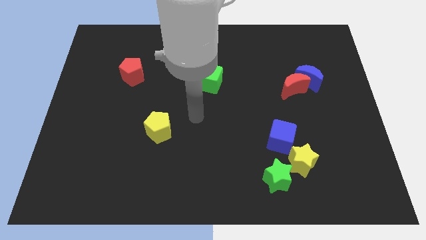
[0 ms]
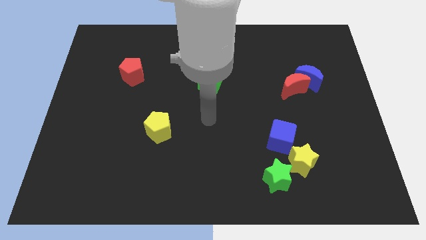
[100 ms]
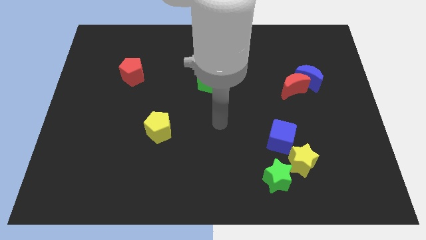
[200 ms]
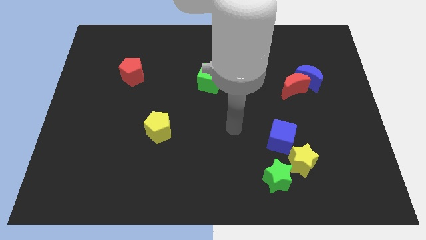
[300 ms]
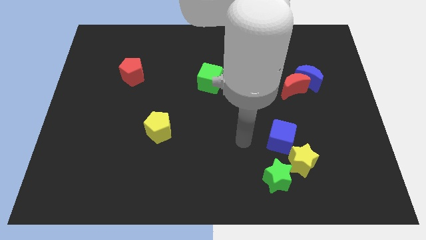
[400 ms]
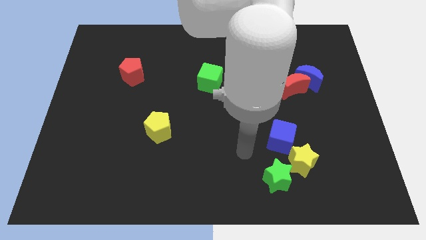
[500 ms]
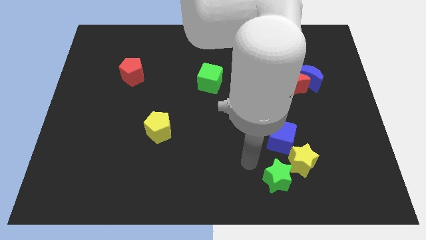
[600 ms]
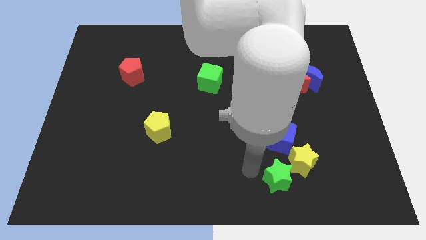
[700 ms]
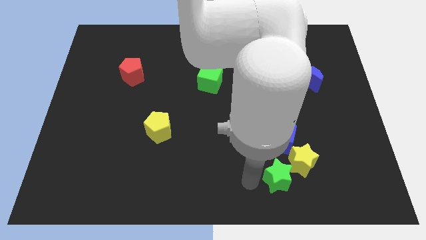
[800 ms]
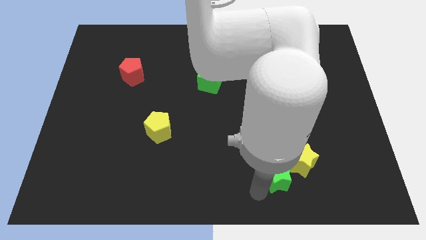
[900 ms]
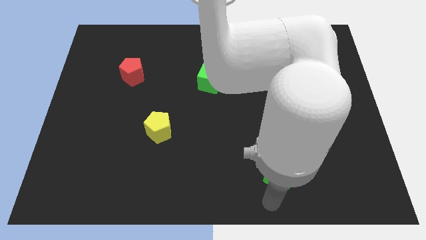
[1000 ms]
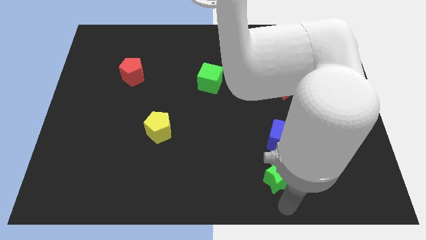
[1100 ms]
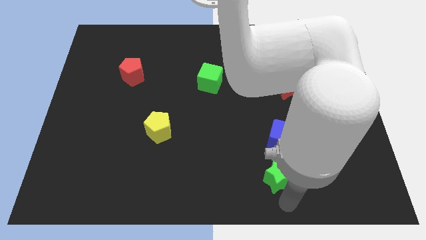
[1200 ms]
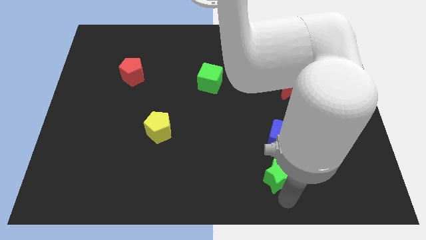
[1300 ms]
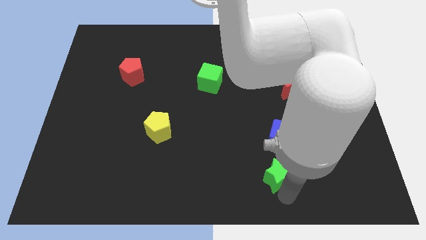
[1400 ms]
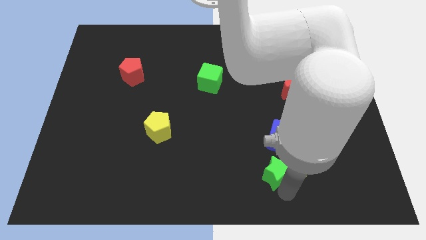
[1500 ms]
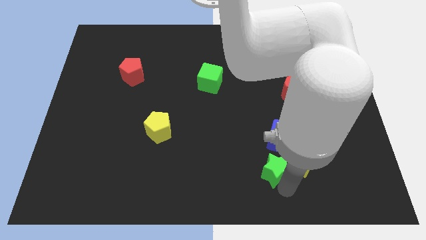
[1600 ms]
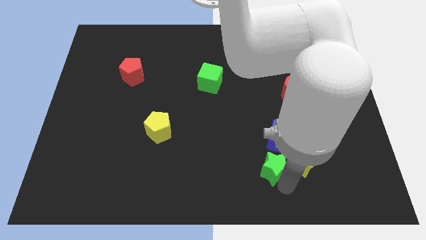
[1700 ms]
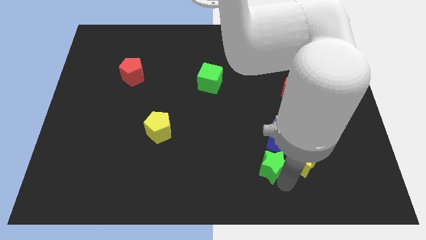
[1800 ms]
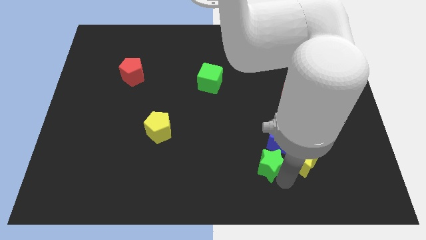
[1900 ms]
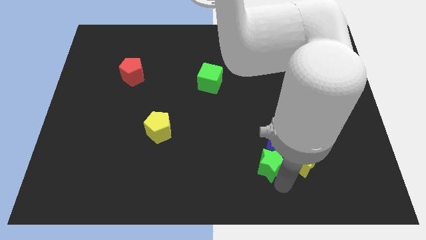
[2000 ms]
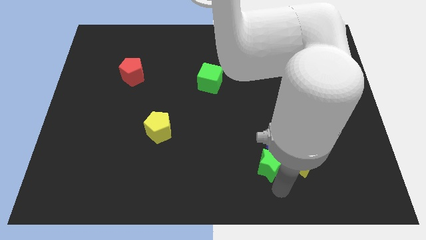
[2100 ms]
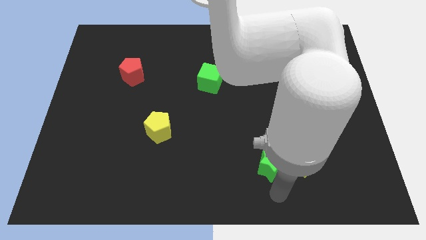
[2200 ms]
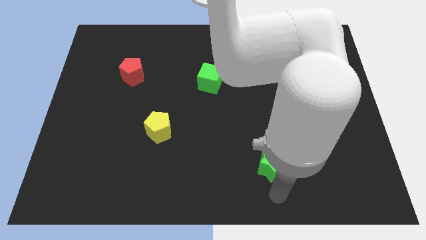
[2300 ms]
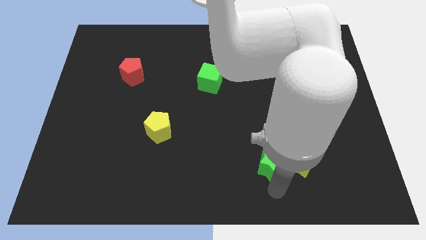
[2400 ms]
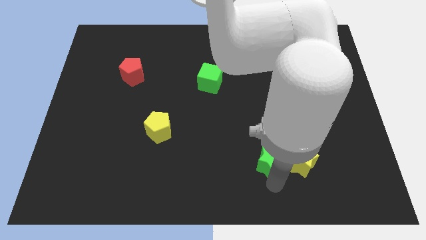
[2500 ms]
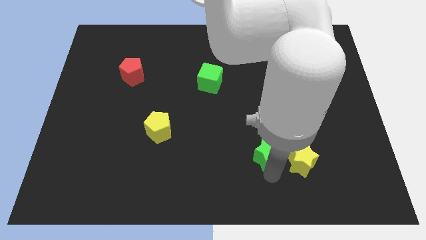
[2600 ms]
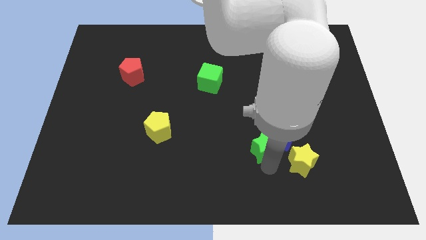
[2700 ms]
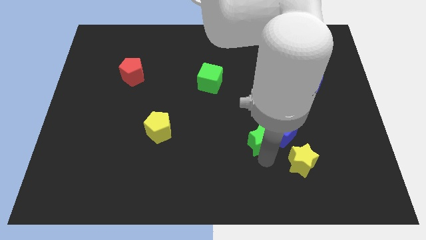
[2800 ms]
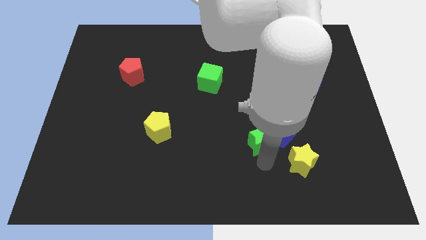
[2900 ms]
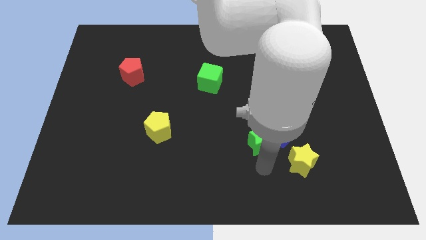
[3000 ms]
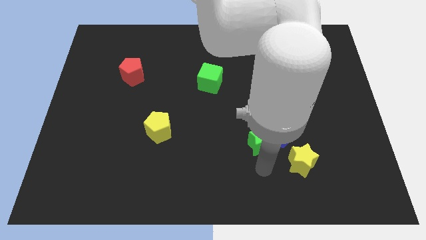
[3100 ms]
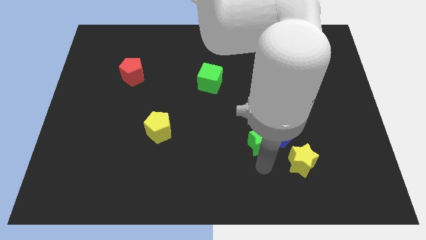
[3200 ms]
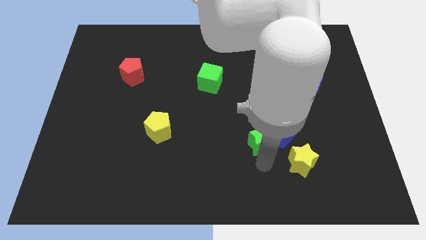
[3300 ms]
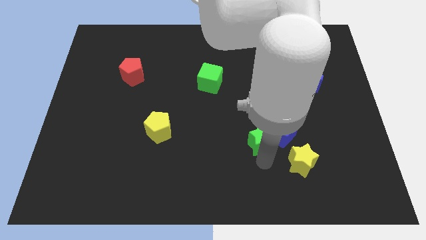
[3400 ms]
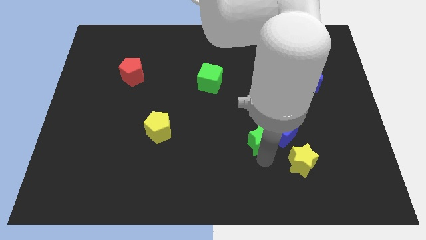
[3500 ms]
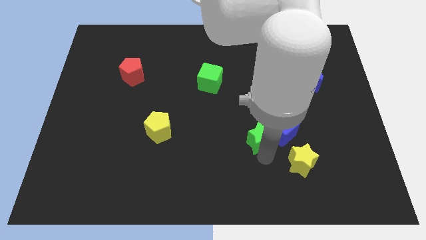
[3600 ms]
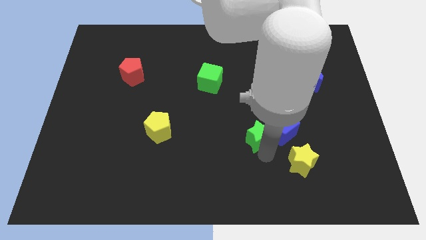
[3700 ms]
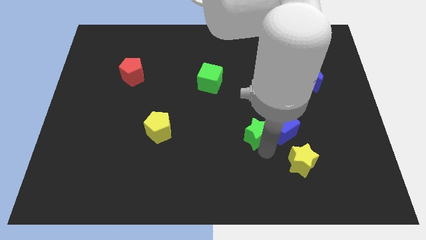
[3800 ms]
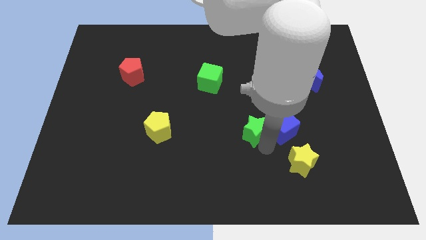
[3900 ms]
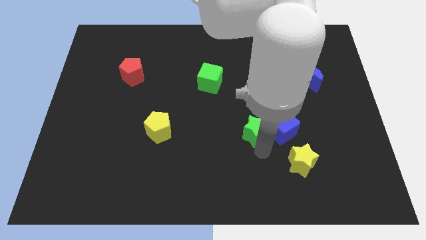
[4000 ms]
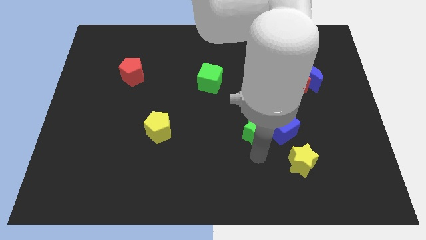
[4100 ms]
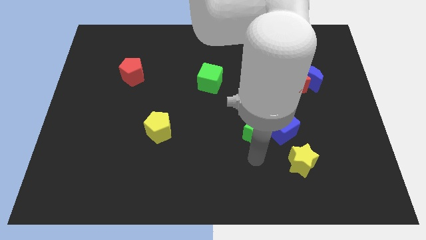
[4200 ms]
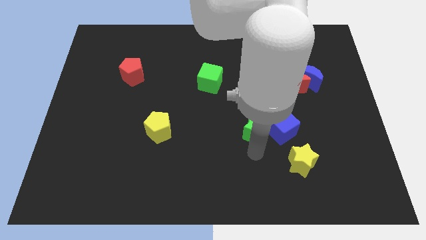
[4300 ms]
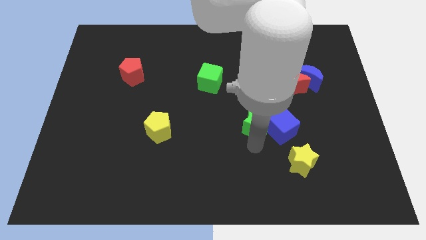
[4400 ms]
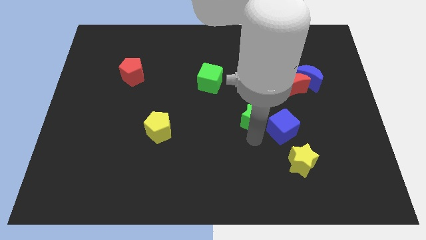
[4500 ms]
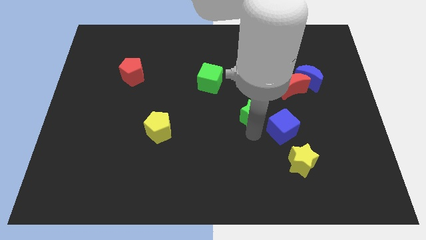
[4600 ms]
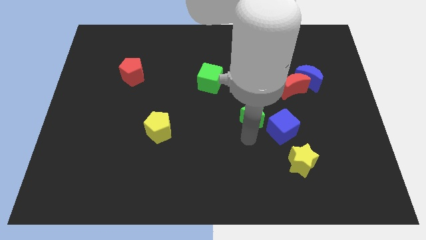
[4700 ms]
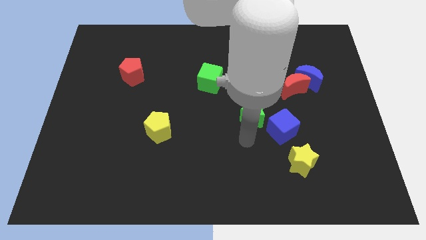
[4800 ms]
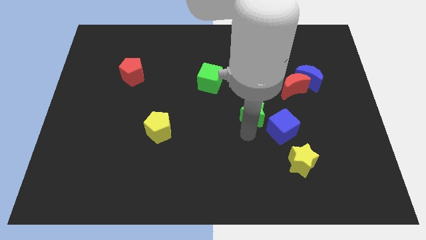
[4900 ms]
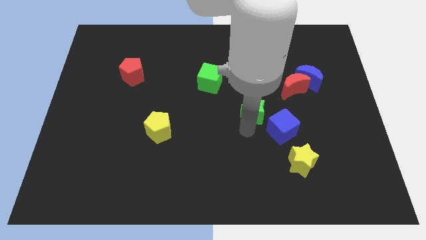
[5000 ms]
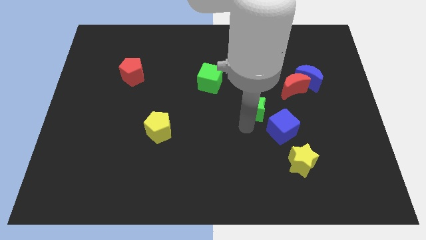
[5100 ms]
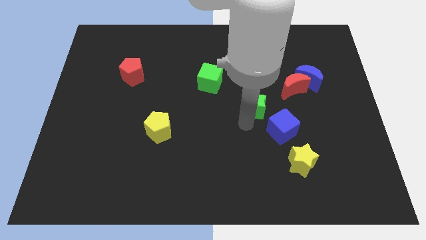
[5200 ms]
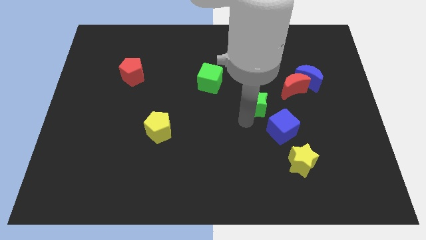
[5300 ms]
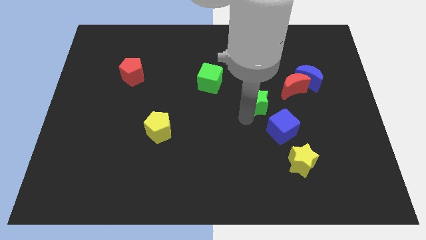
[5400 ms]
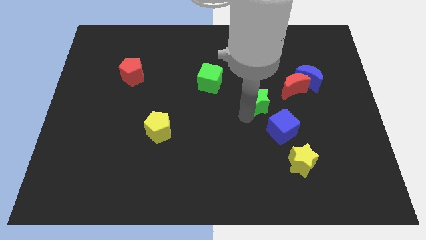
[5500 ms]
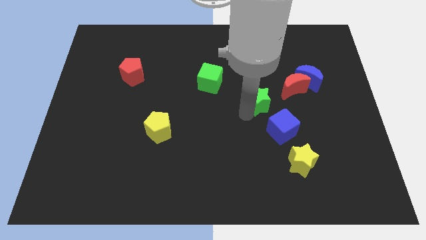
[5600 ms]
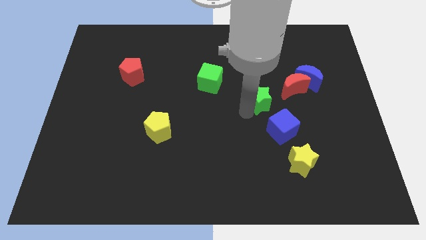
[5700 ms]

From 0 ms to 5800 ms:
move the green star upwards

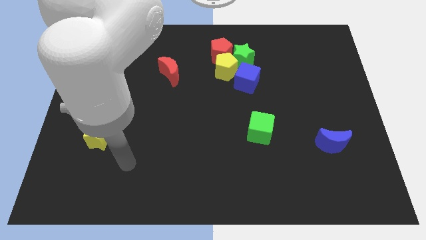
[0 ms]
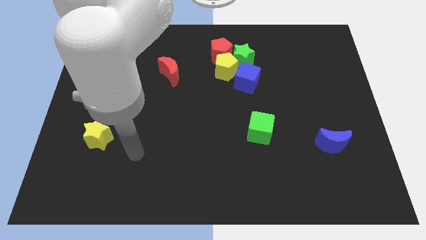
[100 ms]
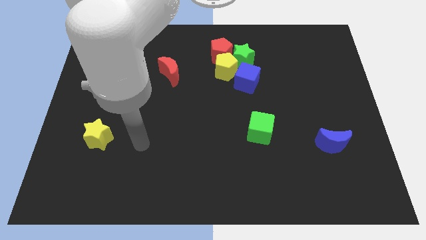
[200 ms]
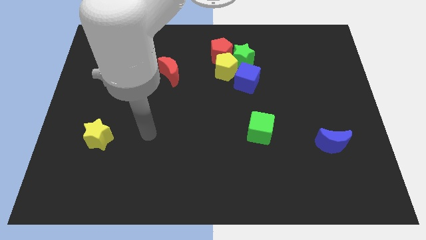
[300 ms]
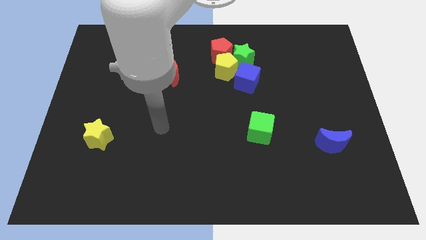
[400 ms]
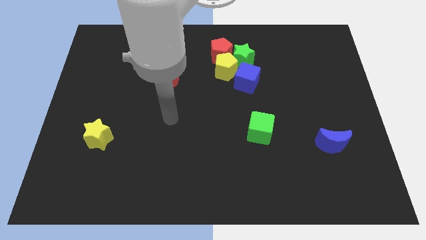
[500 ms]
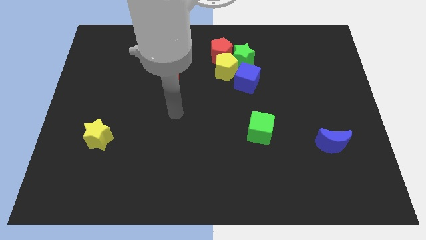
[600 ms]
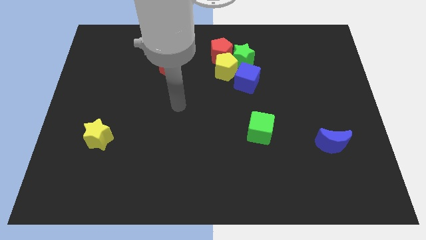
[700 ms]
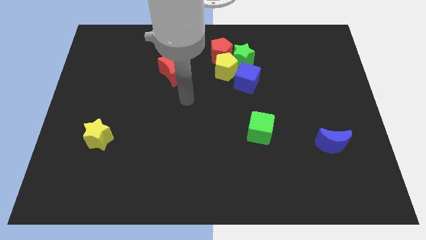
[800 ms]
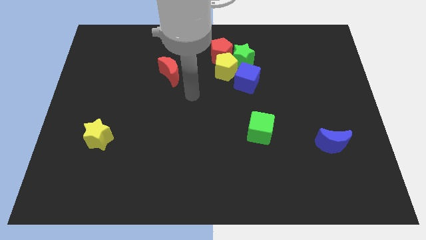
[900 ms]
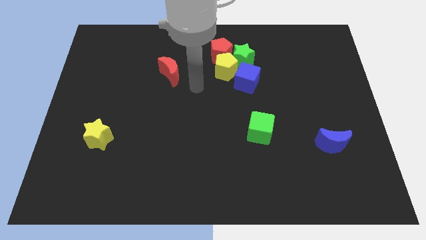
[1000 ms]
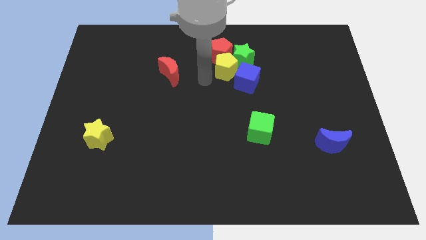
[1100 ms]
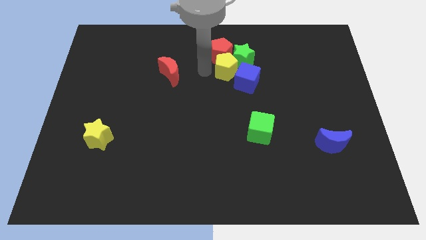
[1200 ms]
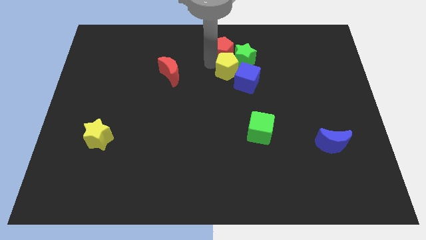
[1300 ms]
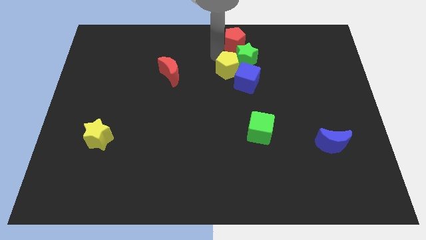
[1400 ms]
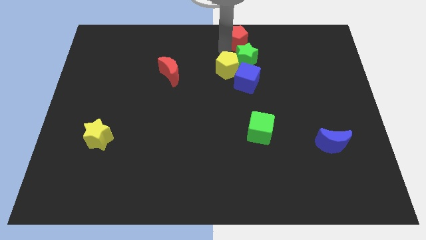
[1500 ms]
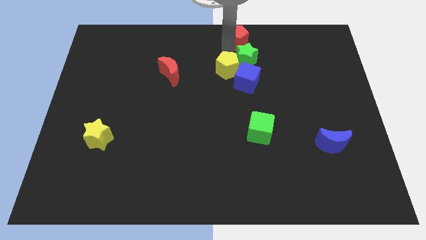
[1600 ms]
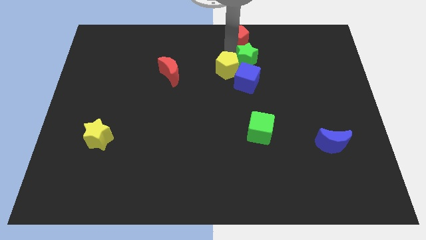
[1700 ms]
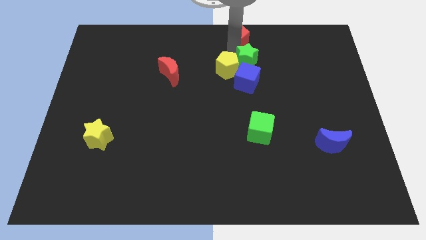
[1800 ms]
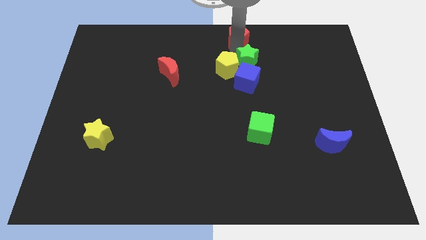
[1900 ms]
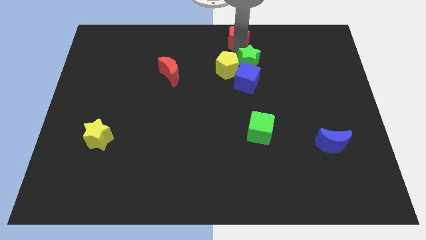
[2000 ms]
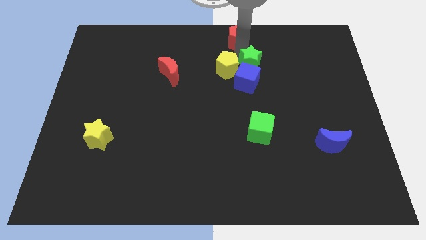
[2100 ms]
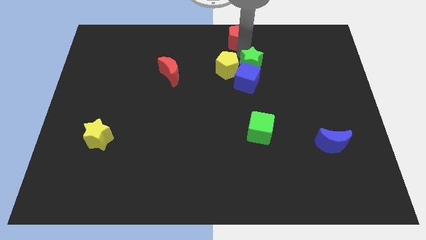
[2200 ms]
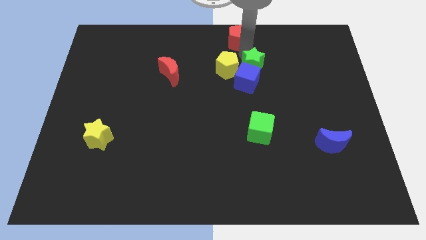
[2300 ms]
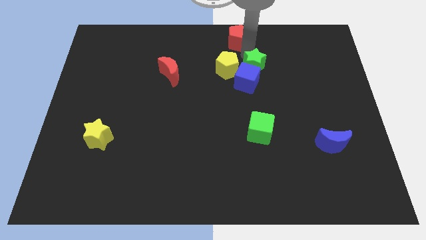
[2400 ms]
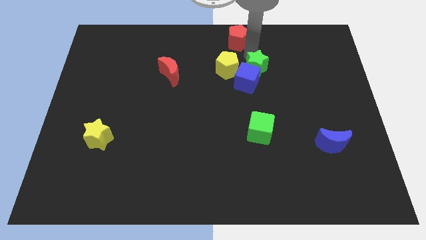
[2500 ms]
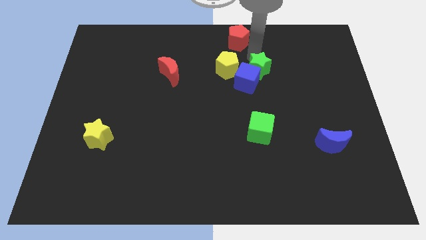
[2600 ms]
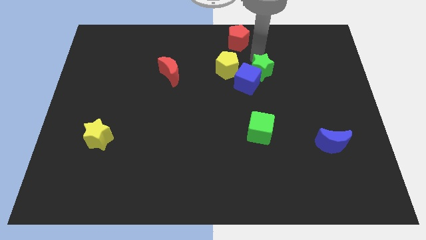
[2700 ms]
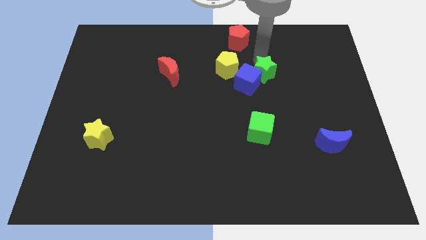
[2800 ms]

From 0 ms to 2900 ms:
slide the green star downwards and right diagonally a little
